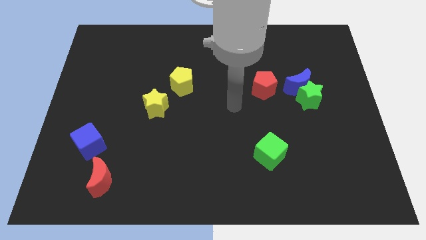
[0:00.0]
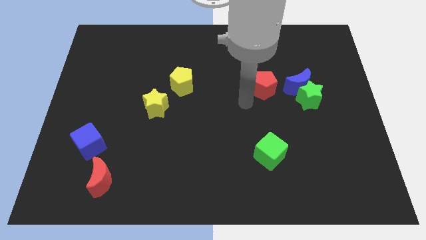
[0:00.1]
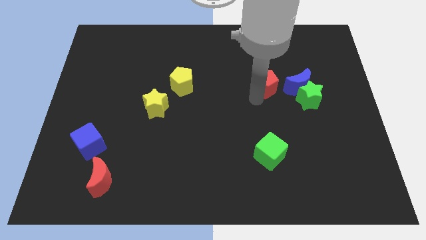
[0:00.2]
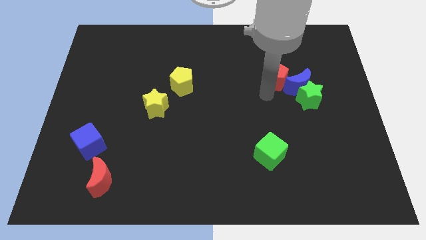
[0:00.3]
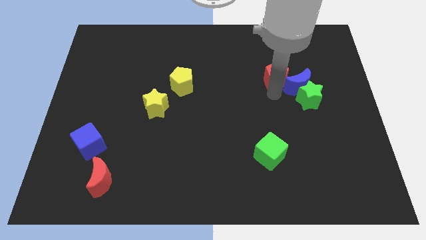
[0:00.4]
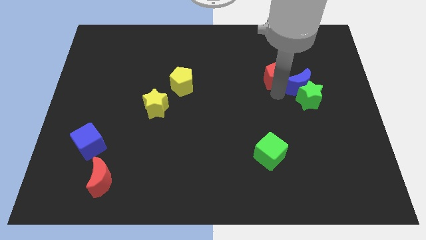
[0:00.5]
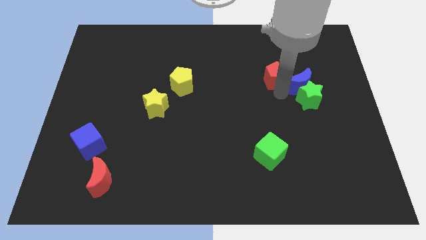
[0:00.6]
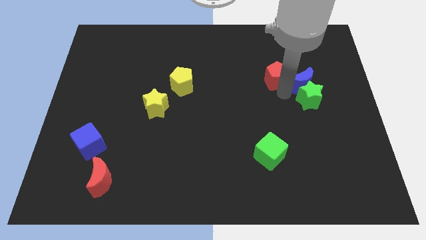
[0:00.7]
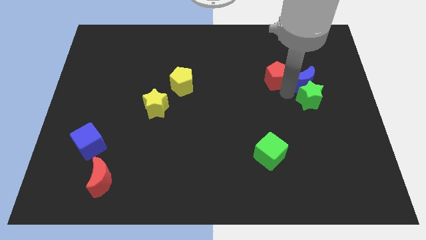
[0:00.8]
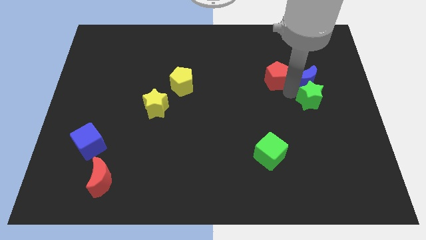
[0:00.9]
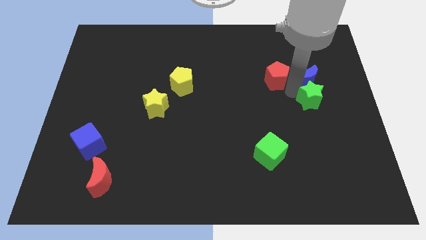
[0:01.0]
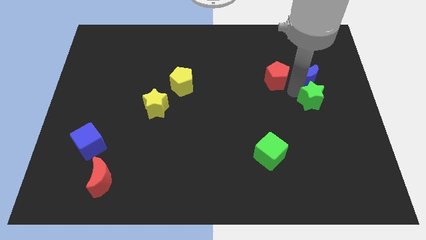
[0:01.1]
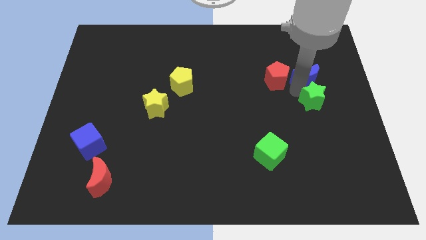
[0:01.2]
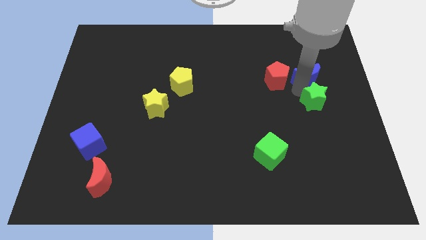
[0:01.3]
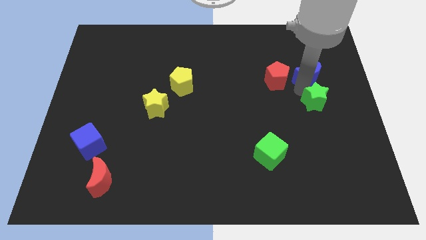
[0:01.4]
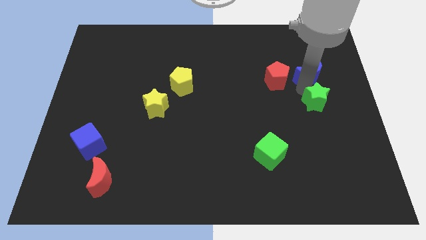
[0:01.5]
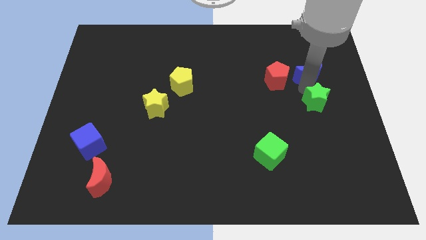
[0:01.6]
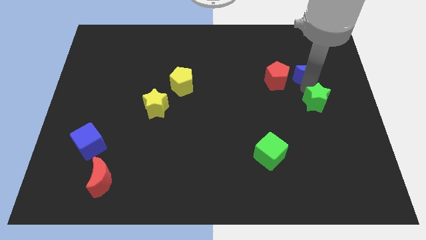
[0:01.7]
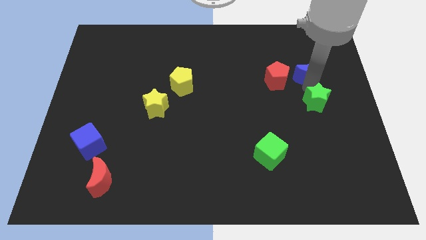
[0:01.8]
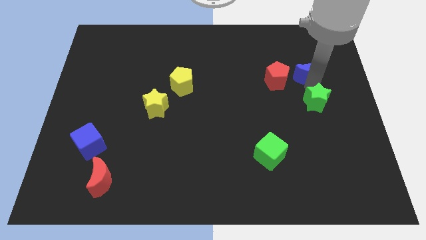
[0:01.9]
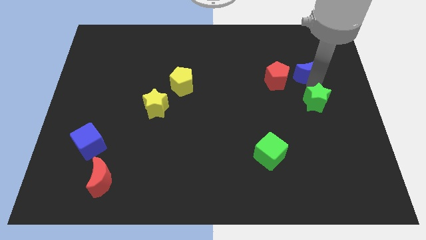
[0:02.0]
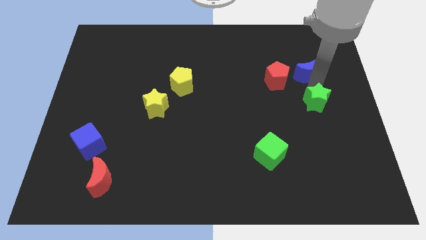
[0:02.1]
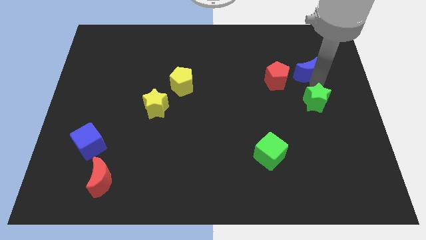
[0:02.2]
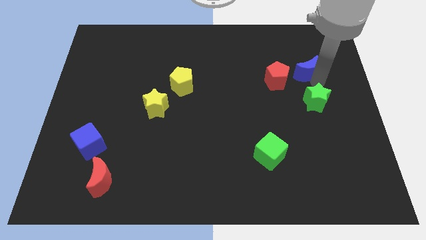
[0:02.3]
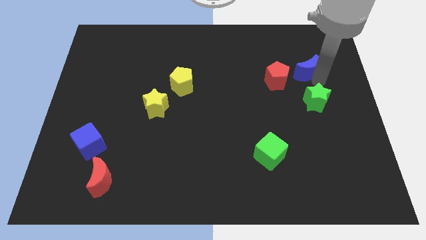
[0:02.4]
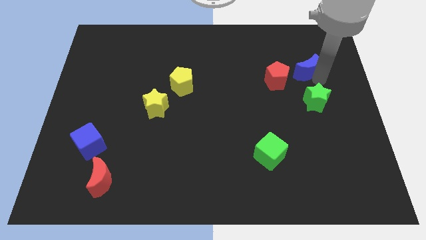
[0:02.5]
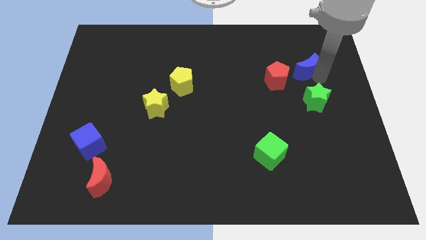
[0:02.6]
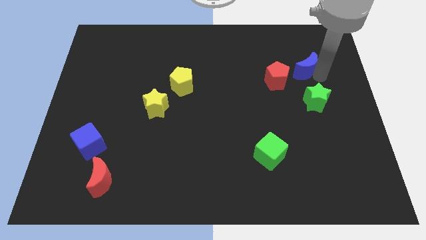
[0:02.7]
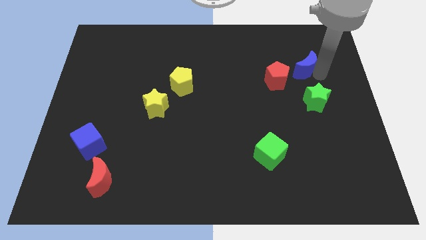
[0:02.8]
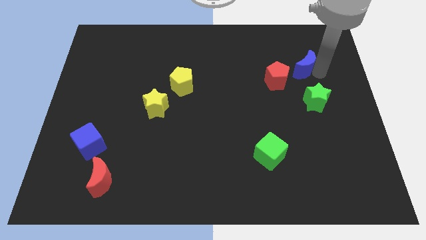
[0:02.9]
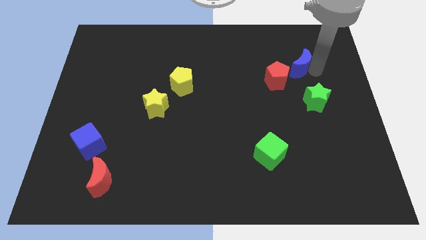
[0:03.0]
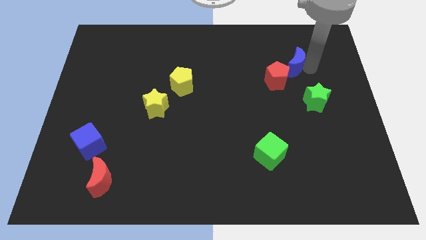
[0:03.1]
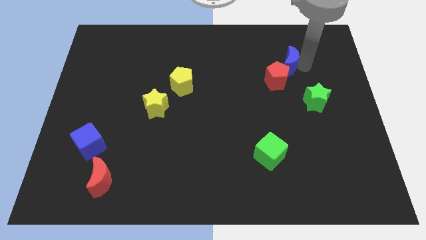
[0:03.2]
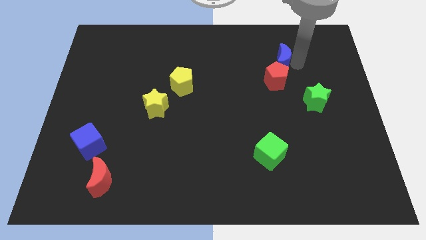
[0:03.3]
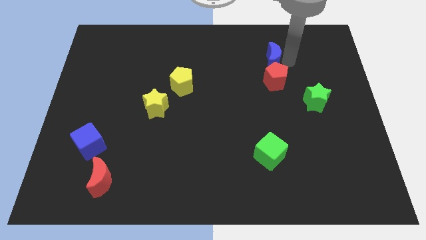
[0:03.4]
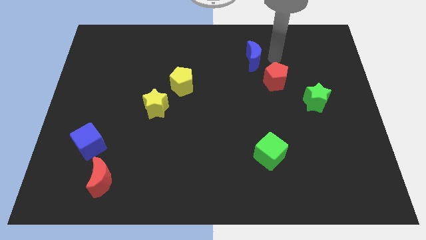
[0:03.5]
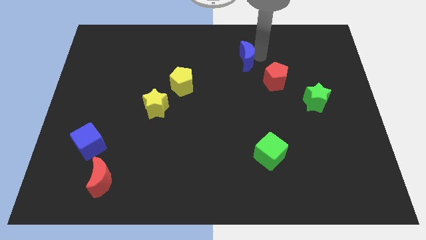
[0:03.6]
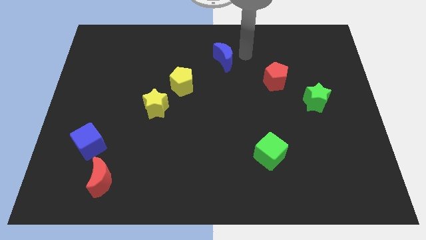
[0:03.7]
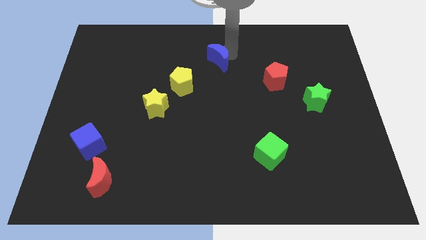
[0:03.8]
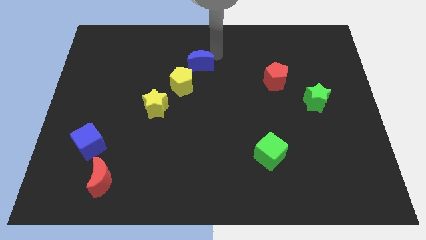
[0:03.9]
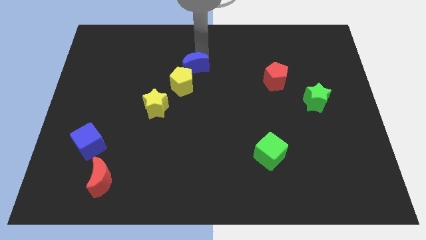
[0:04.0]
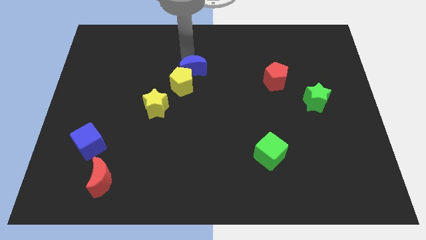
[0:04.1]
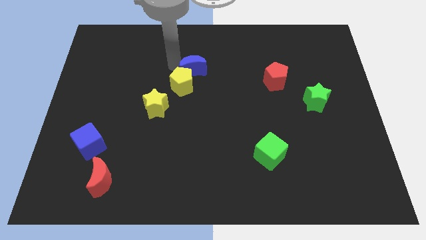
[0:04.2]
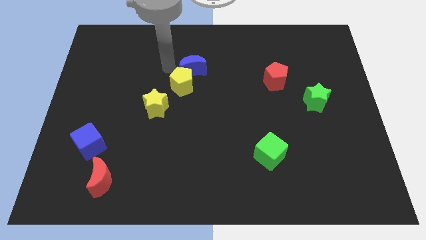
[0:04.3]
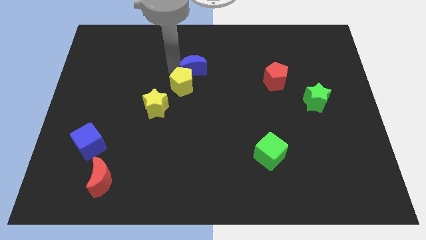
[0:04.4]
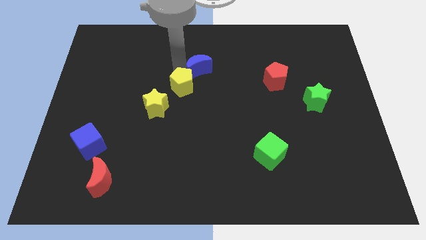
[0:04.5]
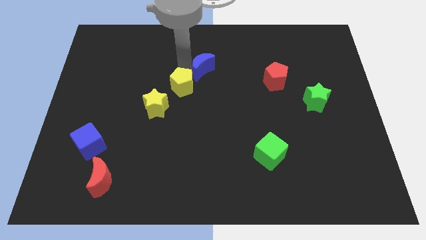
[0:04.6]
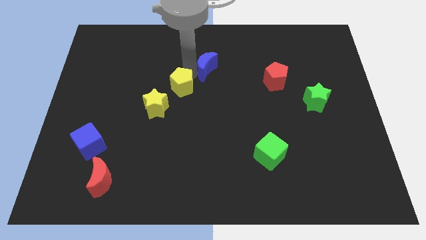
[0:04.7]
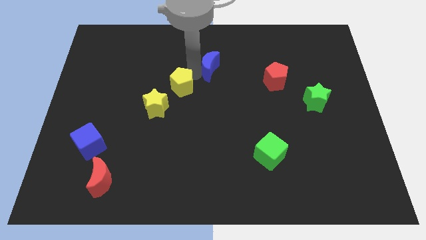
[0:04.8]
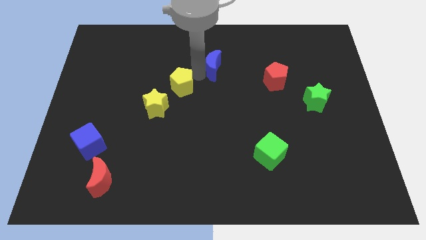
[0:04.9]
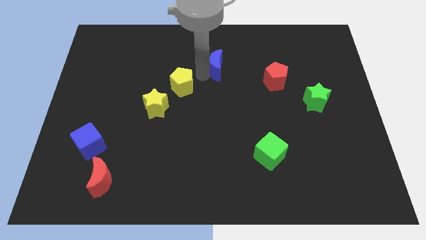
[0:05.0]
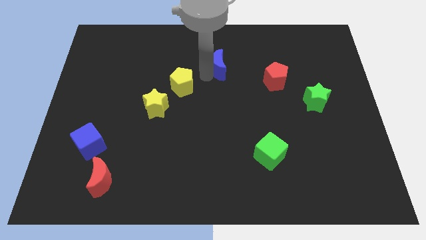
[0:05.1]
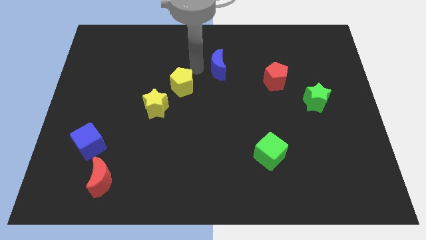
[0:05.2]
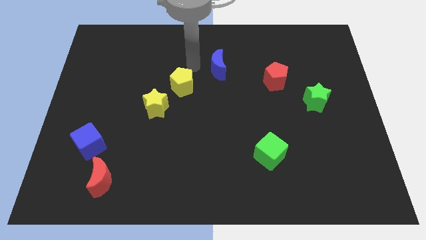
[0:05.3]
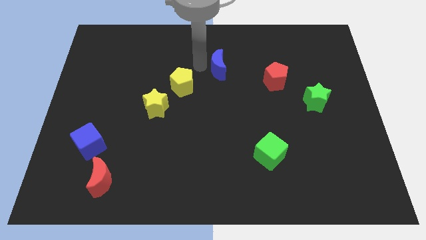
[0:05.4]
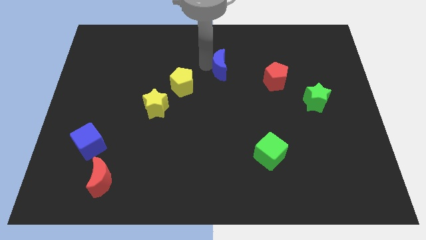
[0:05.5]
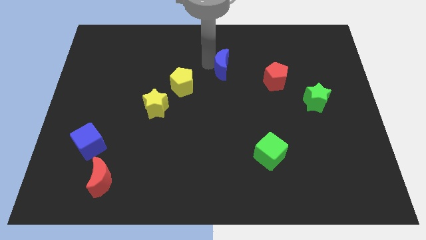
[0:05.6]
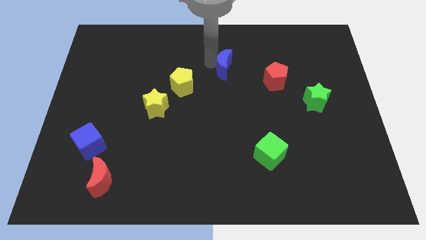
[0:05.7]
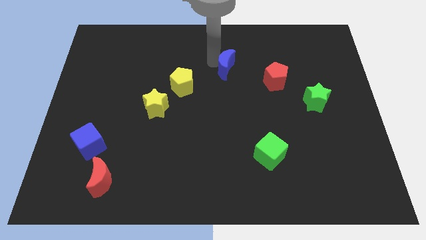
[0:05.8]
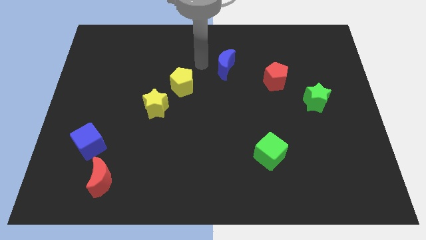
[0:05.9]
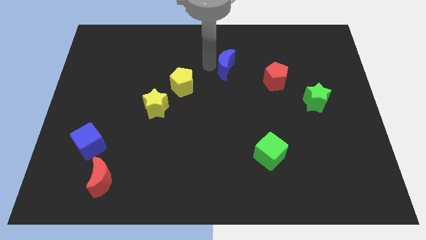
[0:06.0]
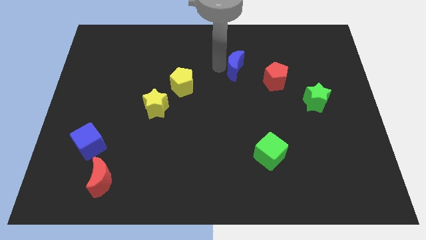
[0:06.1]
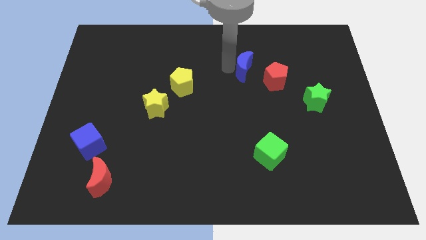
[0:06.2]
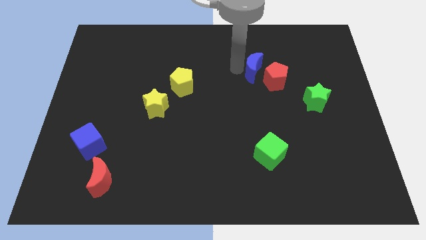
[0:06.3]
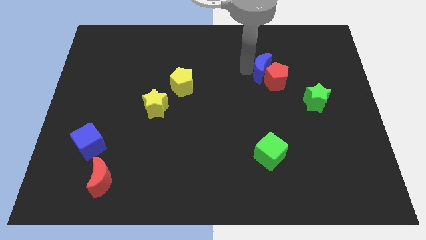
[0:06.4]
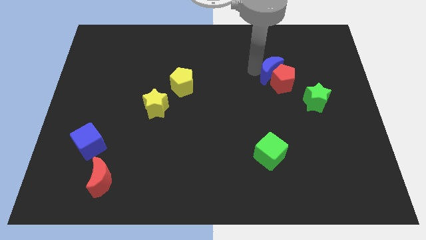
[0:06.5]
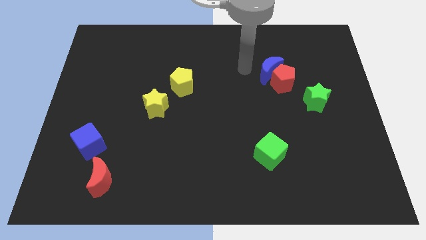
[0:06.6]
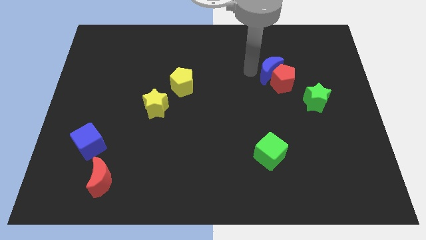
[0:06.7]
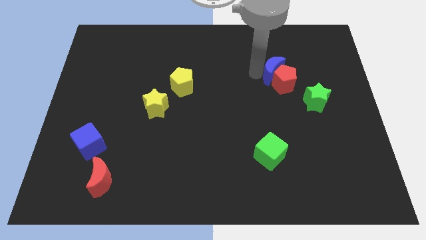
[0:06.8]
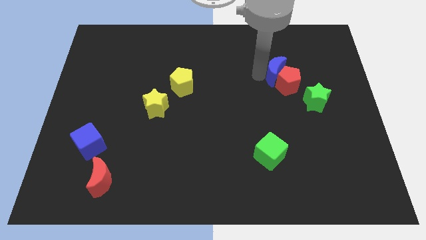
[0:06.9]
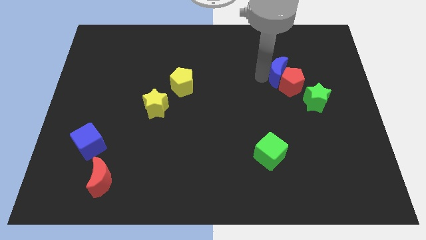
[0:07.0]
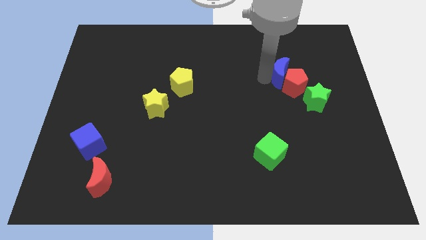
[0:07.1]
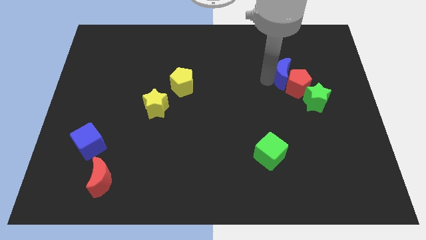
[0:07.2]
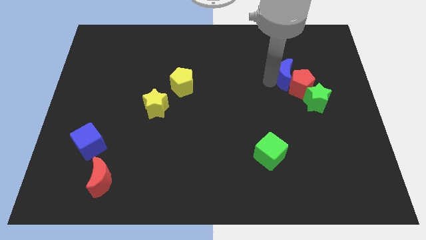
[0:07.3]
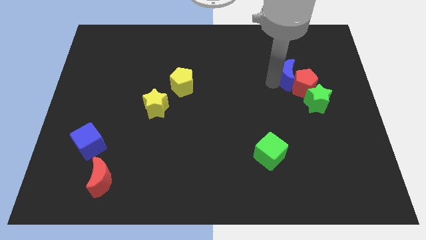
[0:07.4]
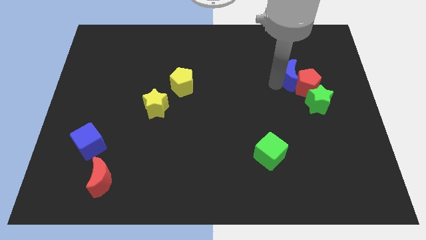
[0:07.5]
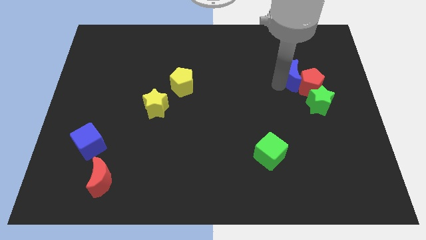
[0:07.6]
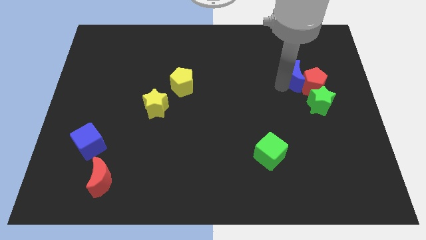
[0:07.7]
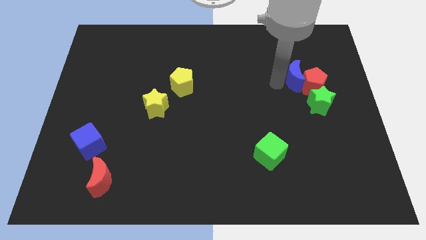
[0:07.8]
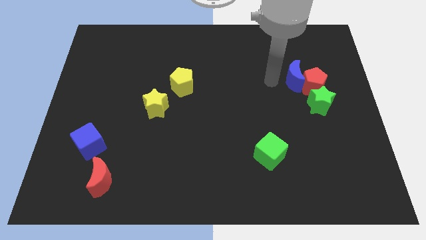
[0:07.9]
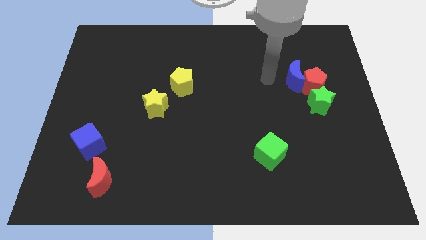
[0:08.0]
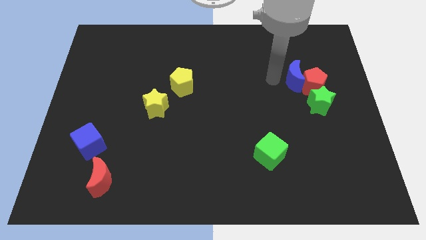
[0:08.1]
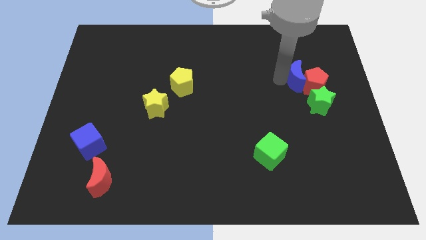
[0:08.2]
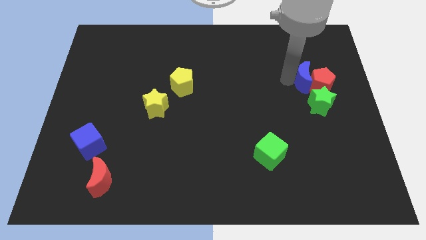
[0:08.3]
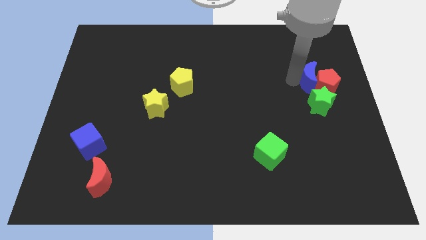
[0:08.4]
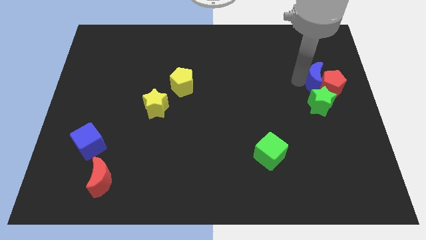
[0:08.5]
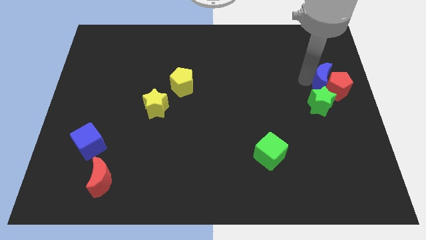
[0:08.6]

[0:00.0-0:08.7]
put the blue moon to the right side
